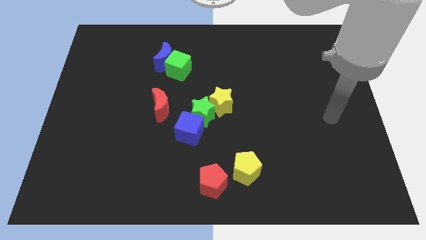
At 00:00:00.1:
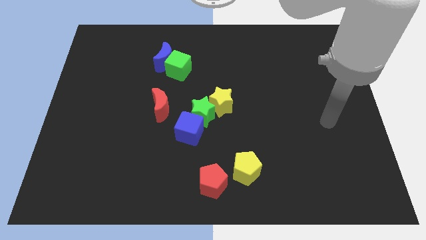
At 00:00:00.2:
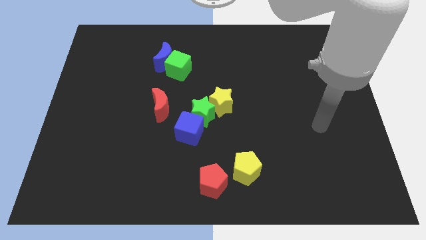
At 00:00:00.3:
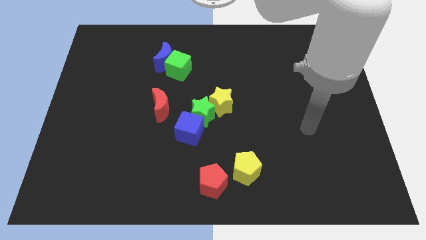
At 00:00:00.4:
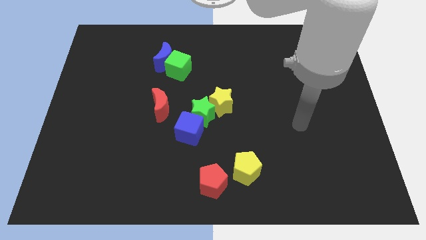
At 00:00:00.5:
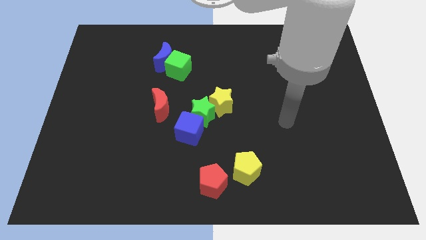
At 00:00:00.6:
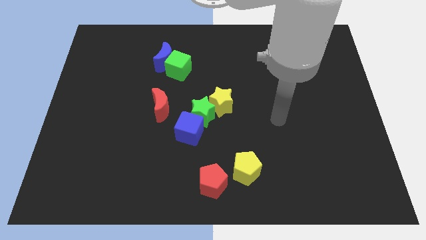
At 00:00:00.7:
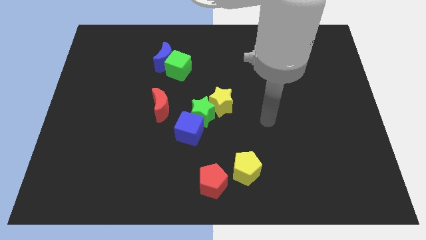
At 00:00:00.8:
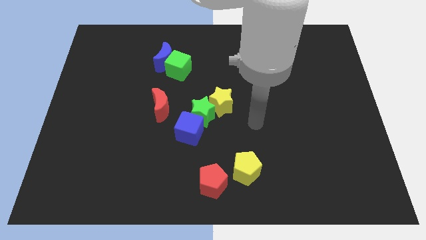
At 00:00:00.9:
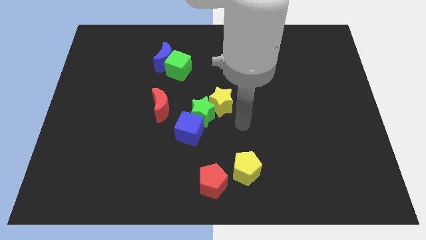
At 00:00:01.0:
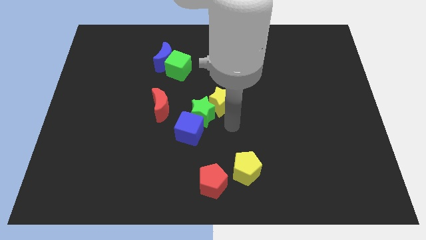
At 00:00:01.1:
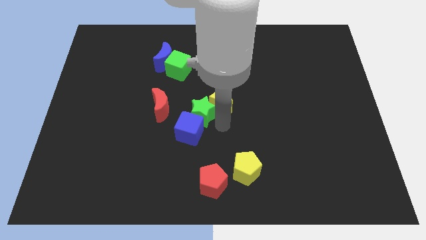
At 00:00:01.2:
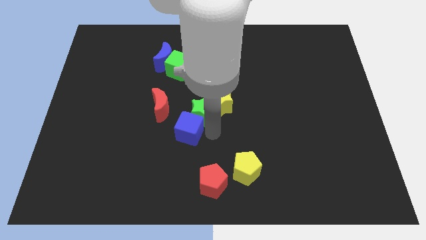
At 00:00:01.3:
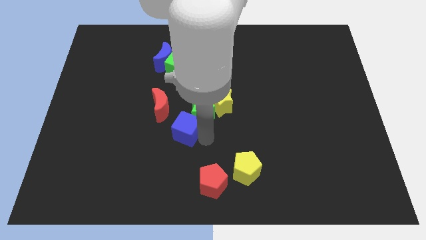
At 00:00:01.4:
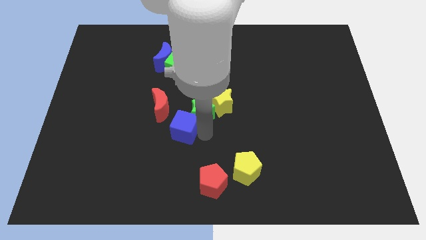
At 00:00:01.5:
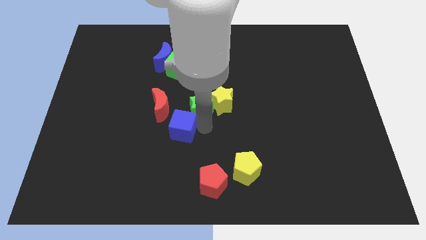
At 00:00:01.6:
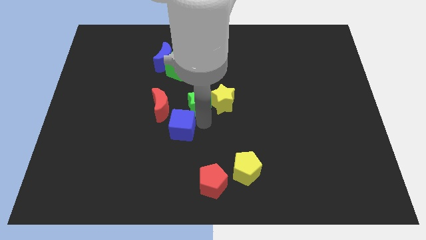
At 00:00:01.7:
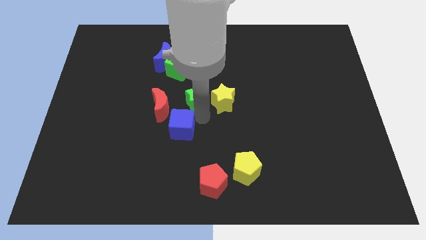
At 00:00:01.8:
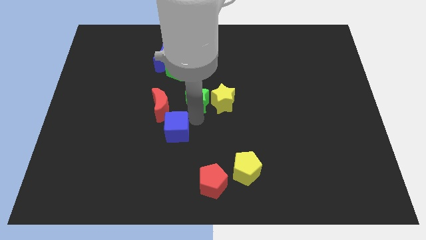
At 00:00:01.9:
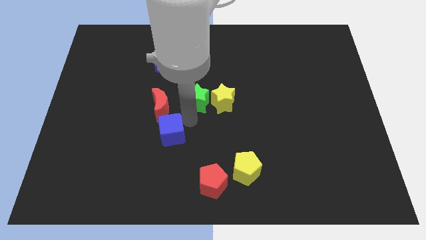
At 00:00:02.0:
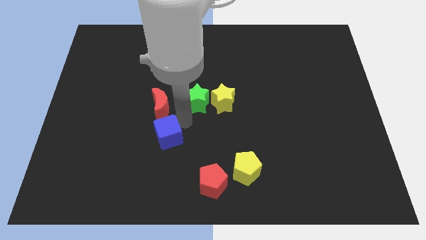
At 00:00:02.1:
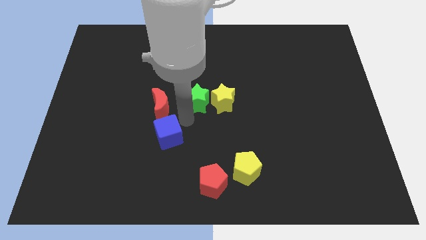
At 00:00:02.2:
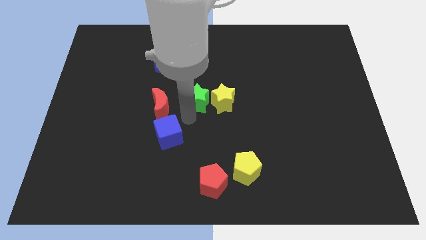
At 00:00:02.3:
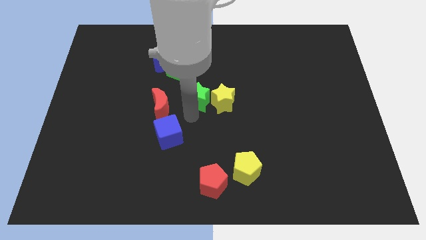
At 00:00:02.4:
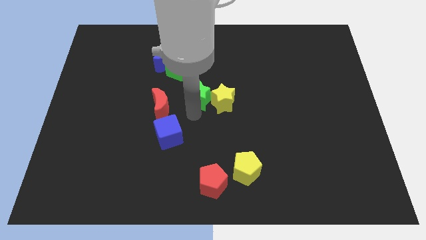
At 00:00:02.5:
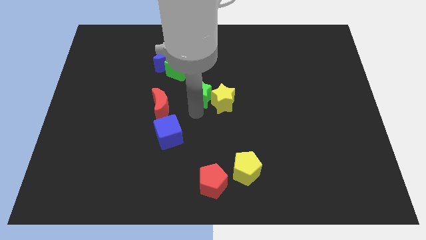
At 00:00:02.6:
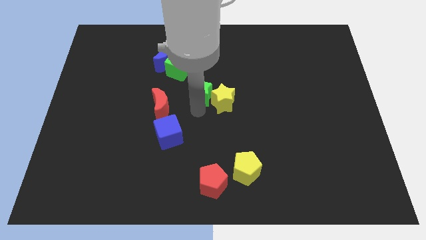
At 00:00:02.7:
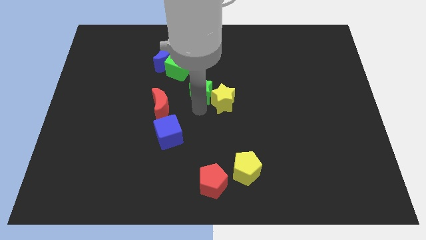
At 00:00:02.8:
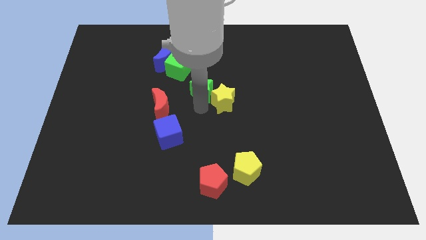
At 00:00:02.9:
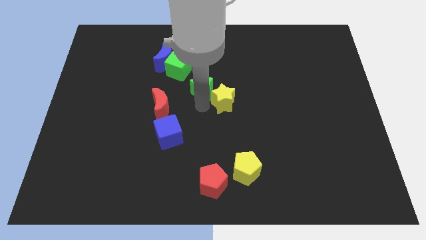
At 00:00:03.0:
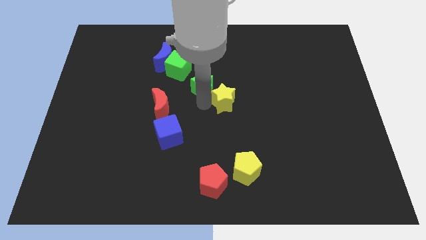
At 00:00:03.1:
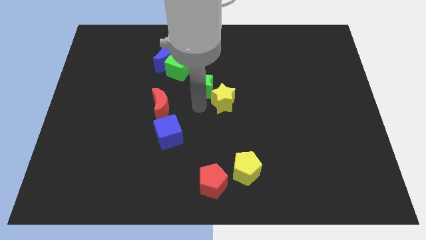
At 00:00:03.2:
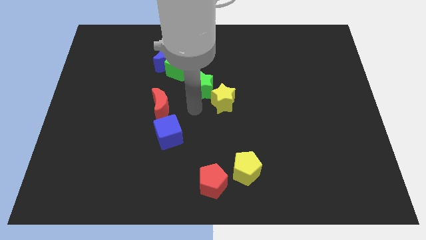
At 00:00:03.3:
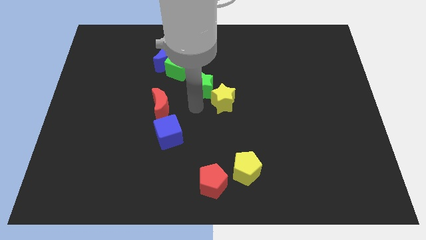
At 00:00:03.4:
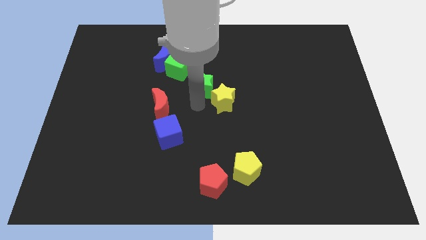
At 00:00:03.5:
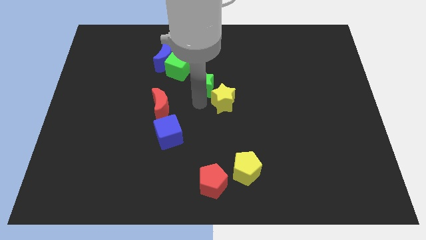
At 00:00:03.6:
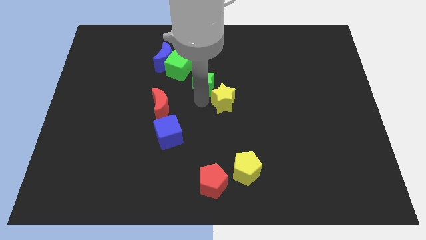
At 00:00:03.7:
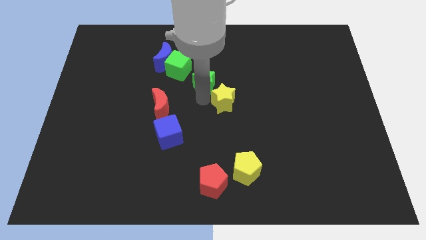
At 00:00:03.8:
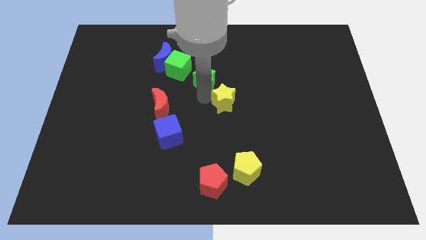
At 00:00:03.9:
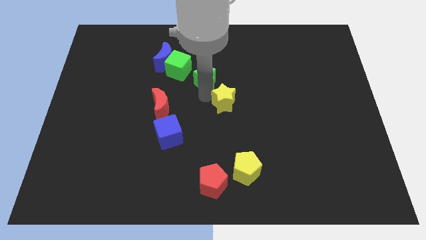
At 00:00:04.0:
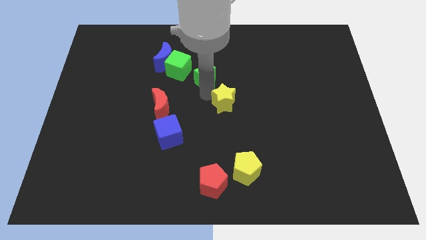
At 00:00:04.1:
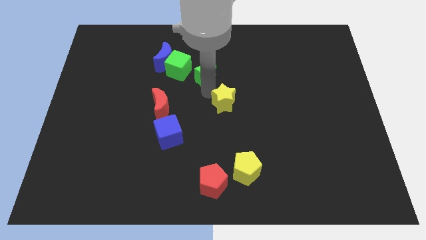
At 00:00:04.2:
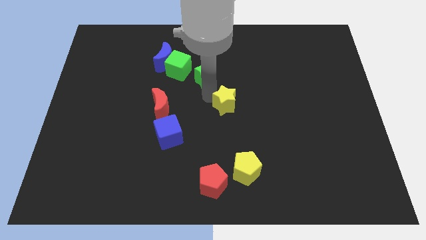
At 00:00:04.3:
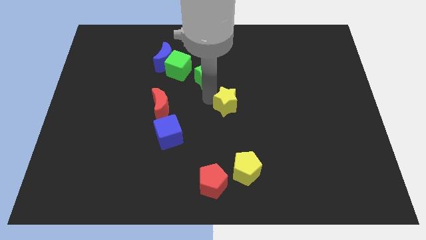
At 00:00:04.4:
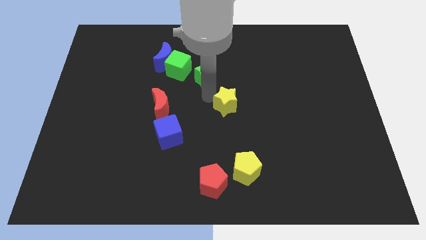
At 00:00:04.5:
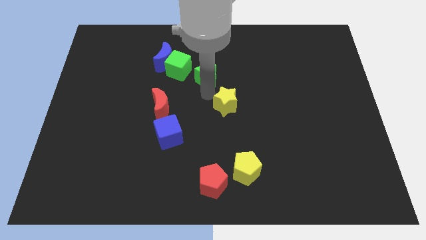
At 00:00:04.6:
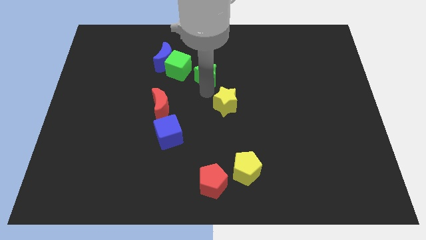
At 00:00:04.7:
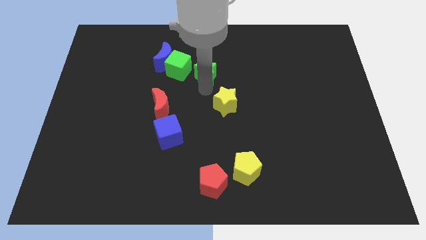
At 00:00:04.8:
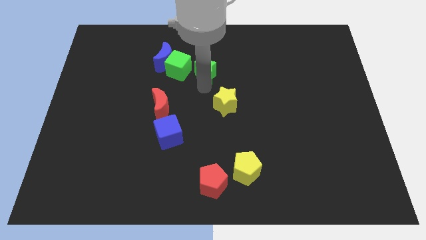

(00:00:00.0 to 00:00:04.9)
slide the green star to the right side of the blue moon

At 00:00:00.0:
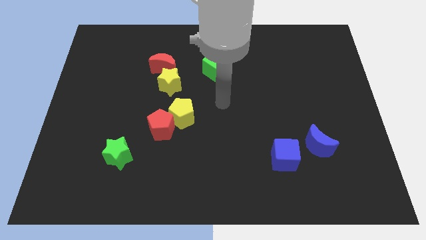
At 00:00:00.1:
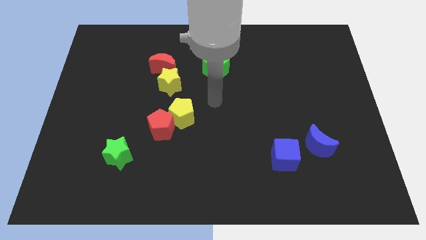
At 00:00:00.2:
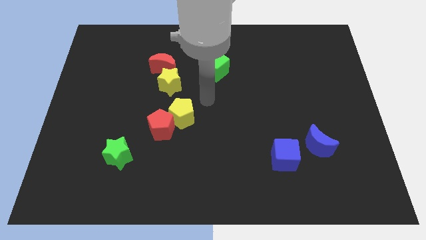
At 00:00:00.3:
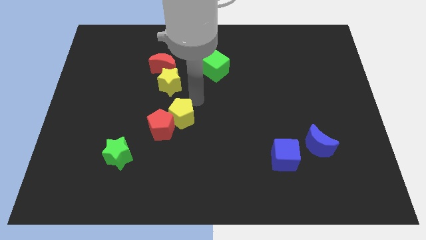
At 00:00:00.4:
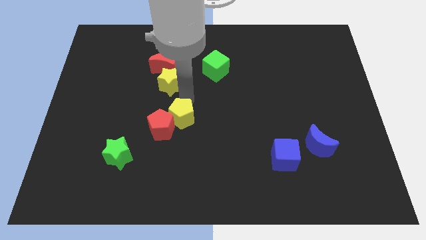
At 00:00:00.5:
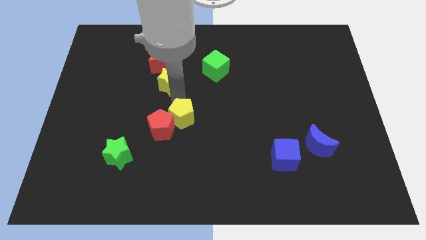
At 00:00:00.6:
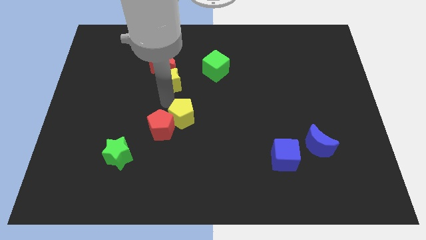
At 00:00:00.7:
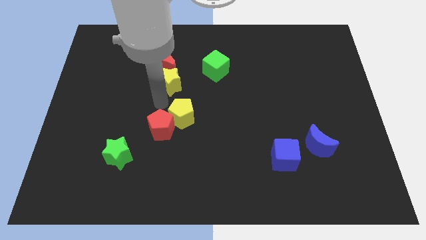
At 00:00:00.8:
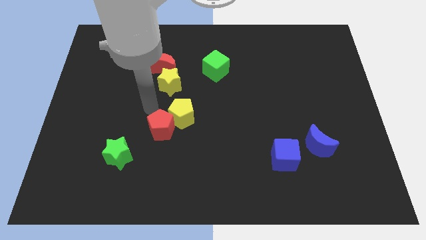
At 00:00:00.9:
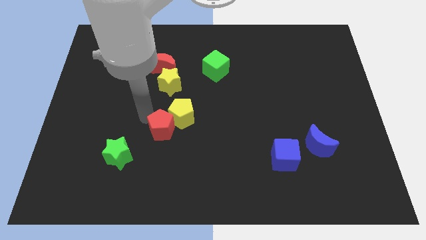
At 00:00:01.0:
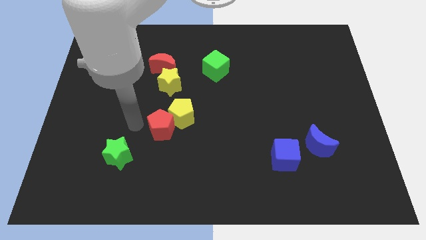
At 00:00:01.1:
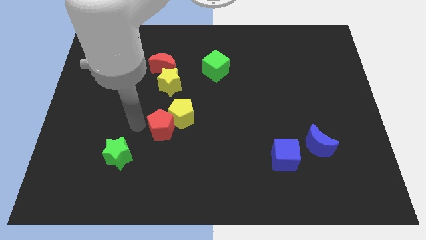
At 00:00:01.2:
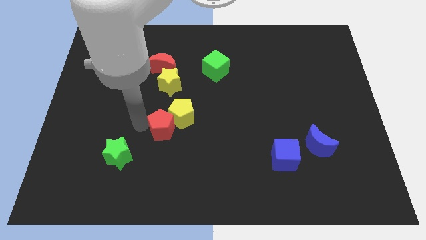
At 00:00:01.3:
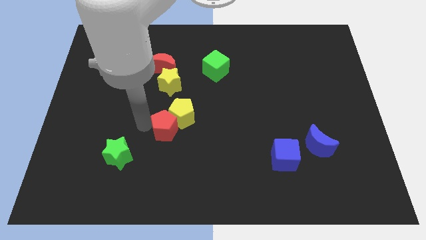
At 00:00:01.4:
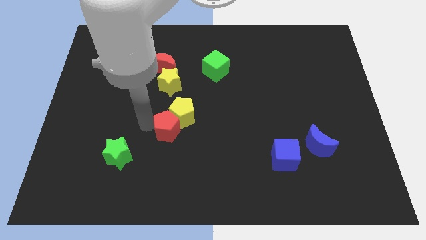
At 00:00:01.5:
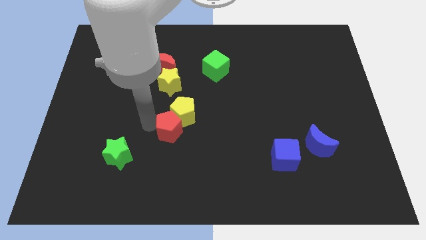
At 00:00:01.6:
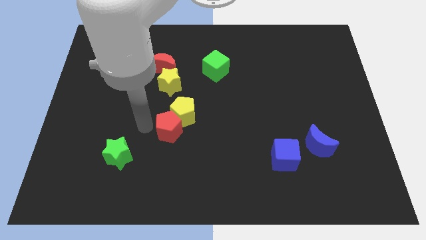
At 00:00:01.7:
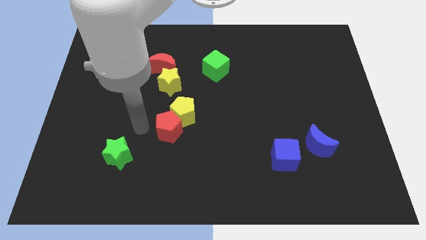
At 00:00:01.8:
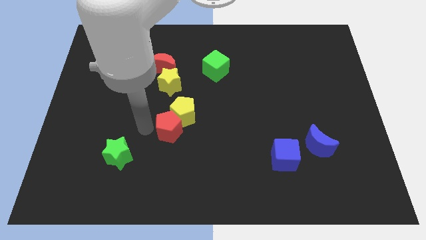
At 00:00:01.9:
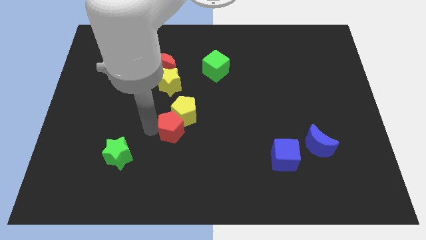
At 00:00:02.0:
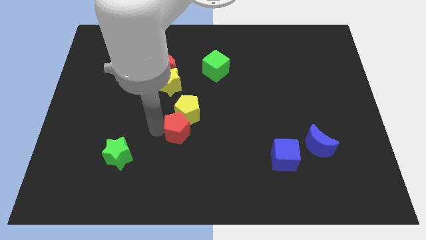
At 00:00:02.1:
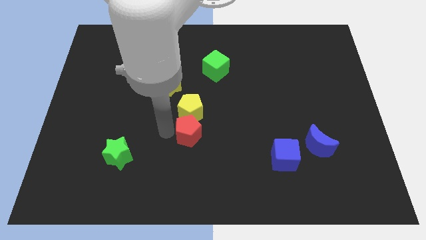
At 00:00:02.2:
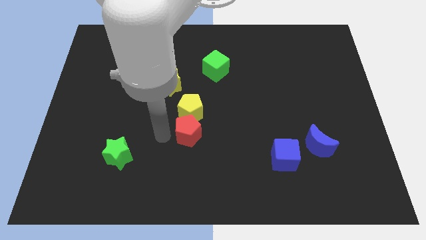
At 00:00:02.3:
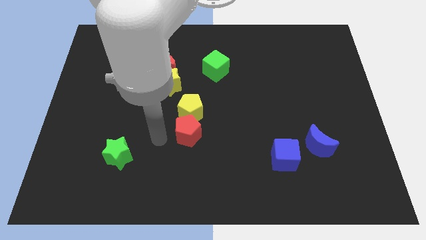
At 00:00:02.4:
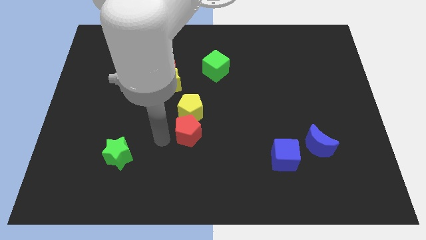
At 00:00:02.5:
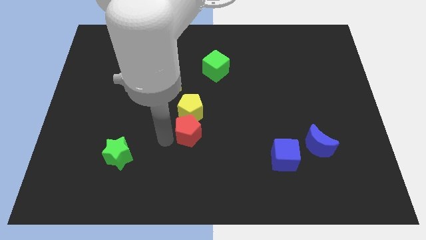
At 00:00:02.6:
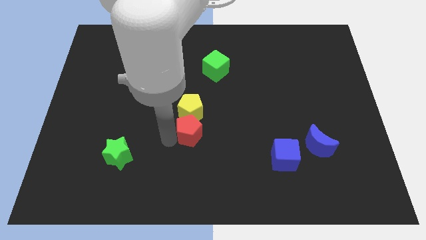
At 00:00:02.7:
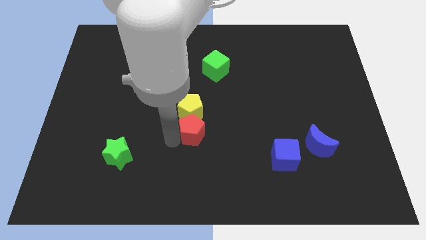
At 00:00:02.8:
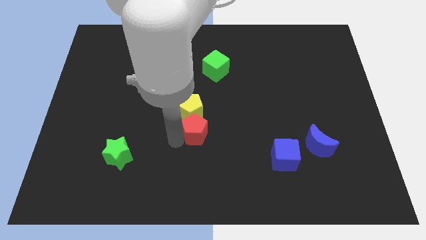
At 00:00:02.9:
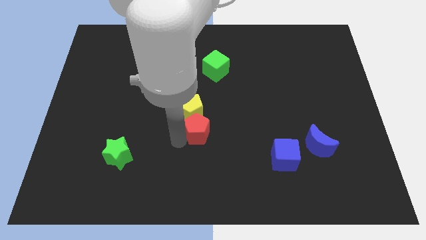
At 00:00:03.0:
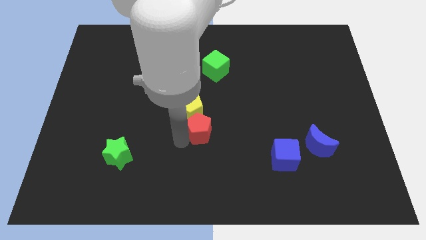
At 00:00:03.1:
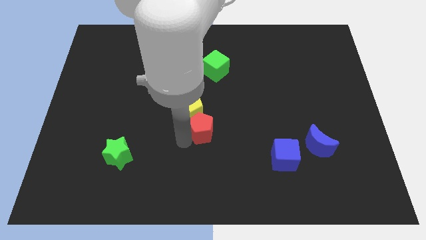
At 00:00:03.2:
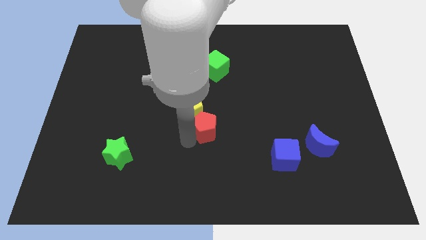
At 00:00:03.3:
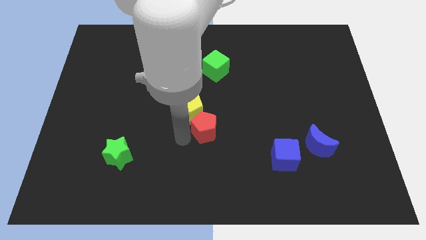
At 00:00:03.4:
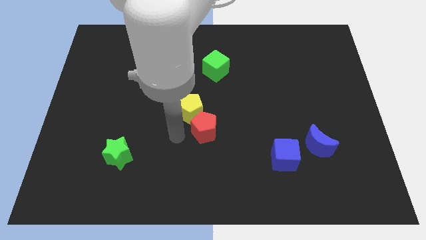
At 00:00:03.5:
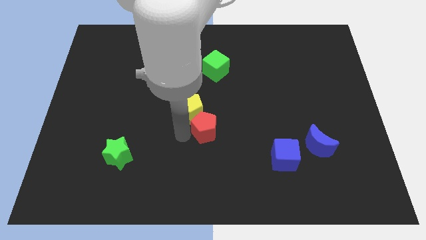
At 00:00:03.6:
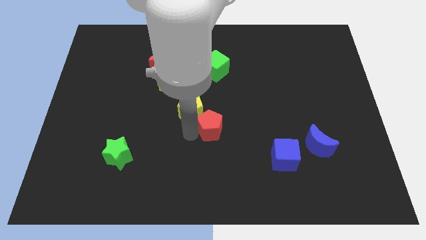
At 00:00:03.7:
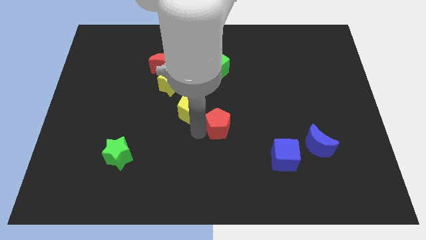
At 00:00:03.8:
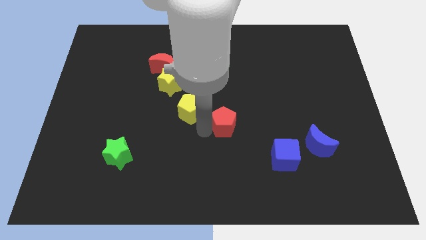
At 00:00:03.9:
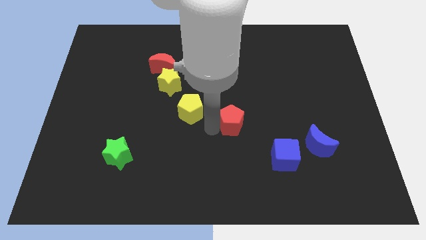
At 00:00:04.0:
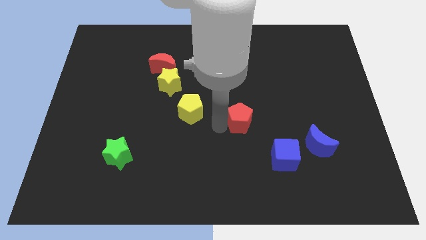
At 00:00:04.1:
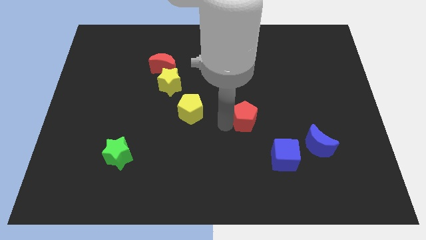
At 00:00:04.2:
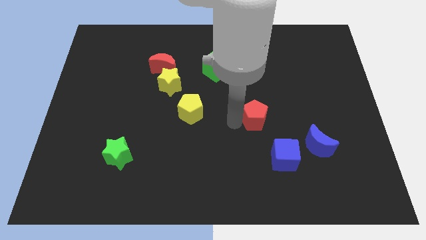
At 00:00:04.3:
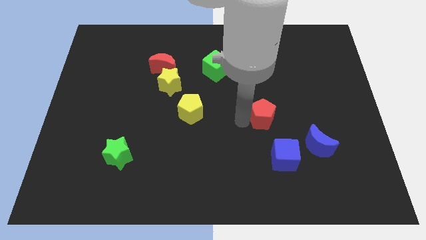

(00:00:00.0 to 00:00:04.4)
put the red pentagon to the top of the blue cube
